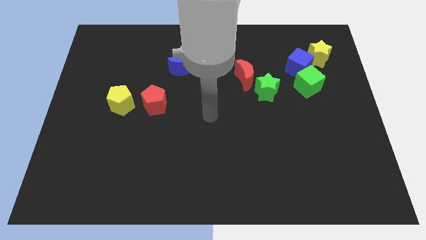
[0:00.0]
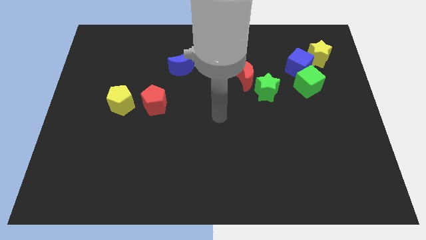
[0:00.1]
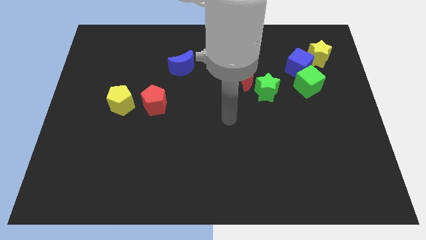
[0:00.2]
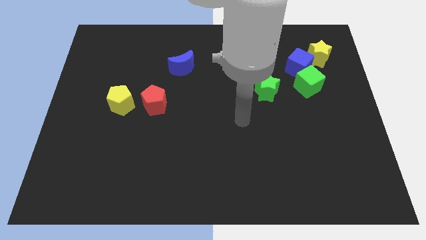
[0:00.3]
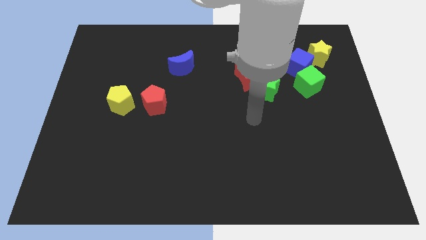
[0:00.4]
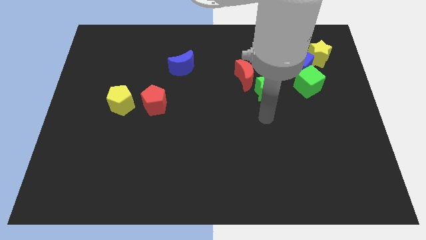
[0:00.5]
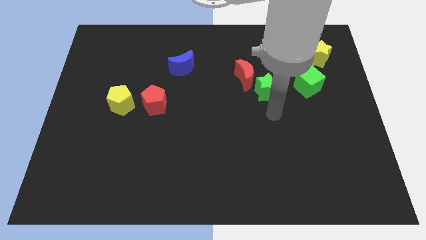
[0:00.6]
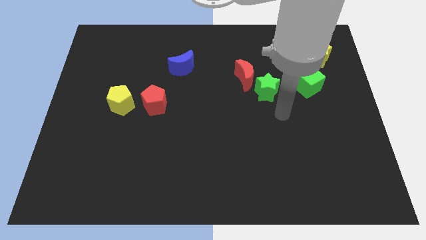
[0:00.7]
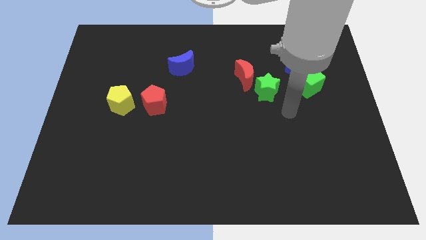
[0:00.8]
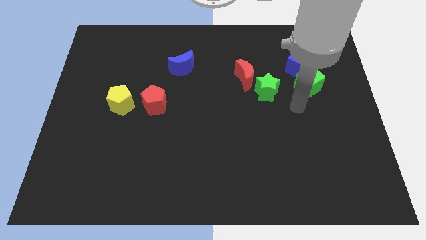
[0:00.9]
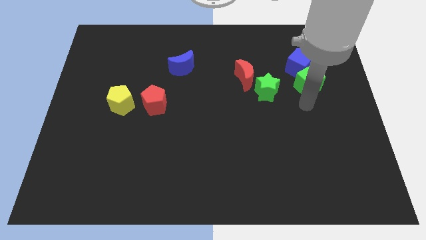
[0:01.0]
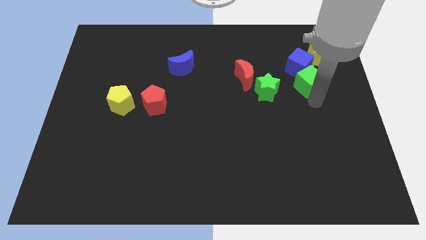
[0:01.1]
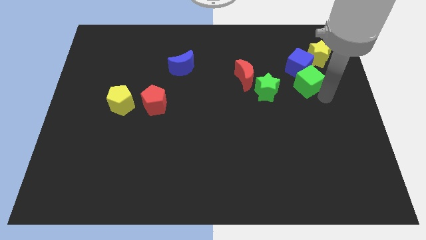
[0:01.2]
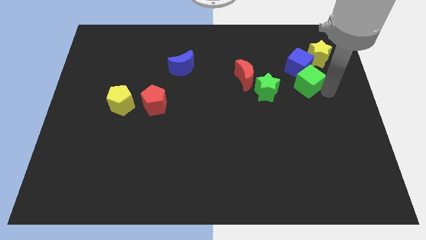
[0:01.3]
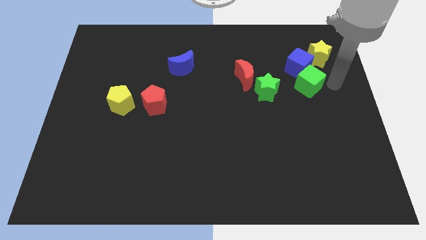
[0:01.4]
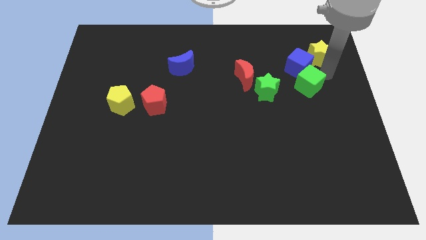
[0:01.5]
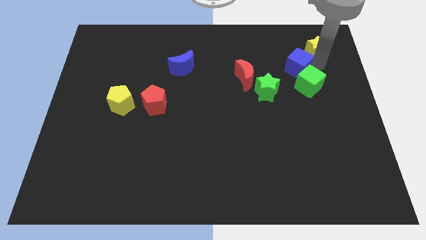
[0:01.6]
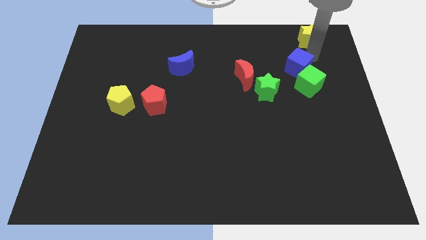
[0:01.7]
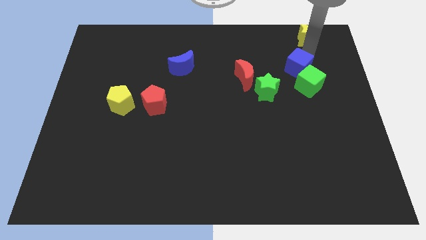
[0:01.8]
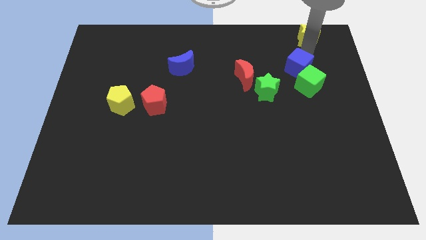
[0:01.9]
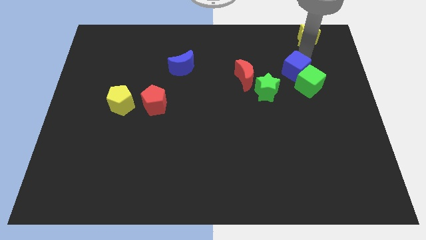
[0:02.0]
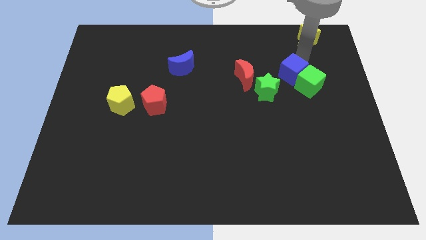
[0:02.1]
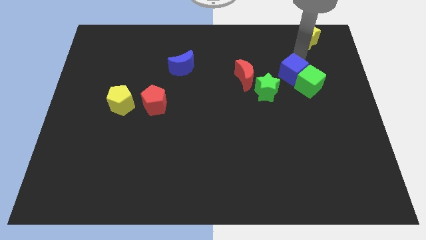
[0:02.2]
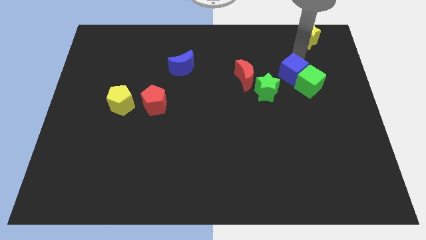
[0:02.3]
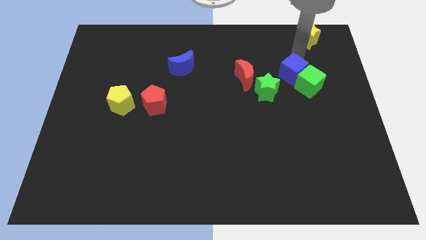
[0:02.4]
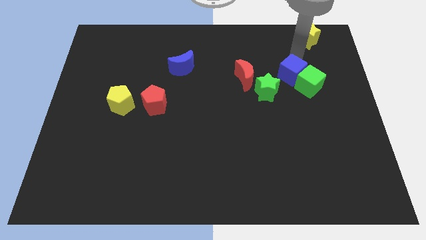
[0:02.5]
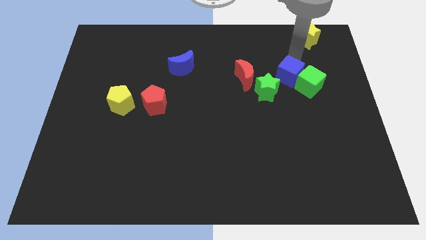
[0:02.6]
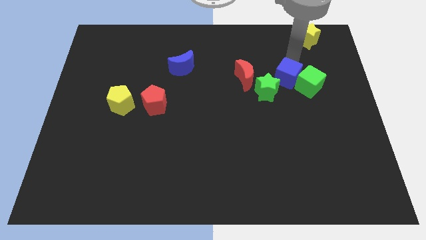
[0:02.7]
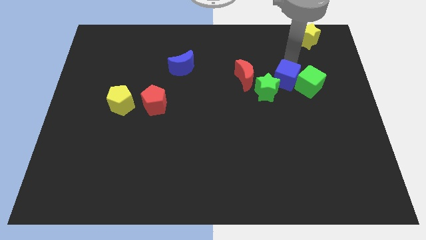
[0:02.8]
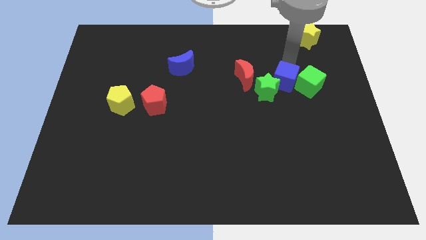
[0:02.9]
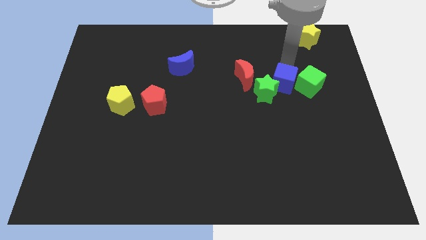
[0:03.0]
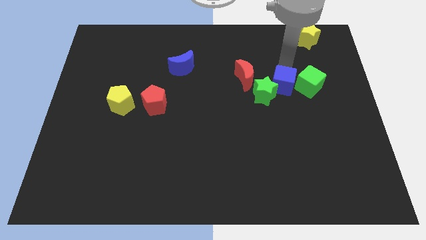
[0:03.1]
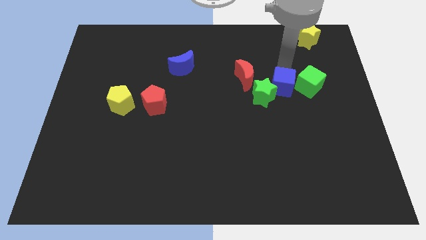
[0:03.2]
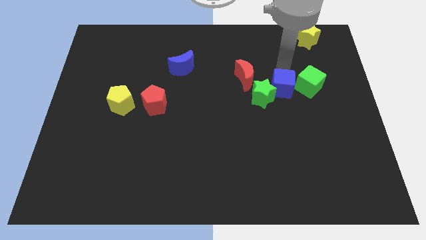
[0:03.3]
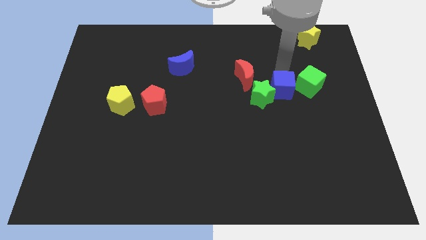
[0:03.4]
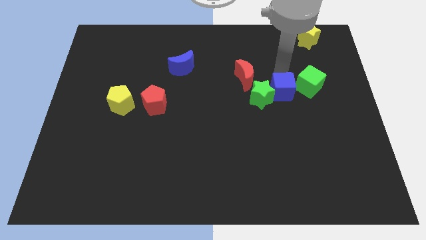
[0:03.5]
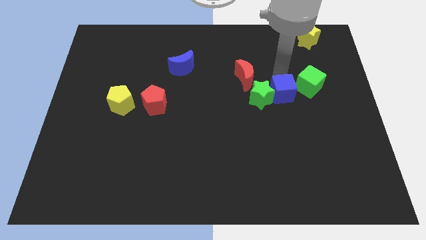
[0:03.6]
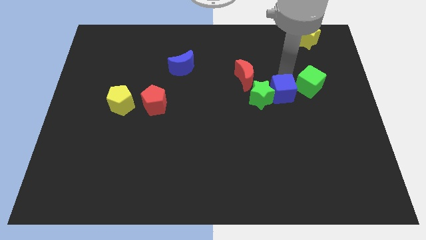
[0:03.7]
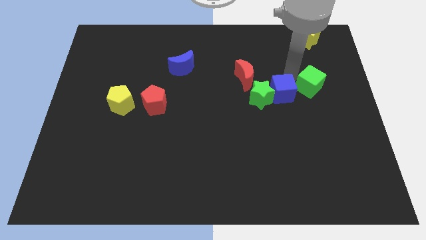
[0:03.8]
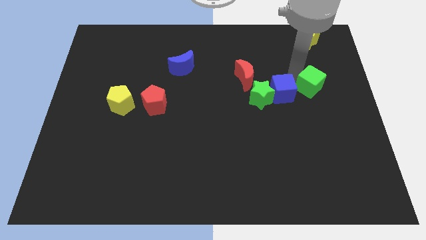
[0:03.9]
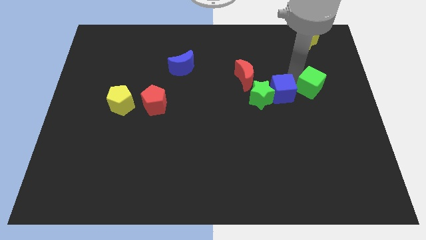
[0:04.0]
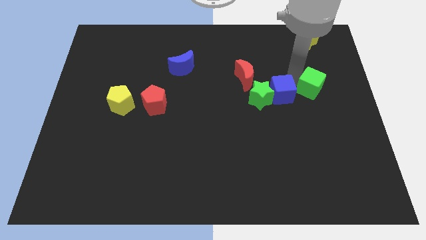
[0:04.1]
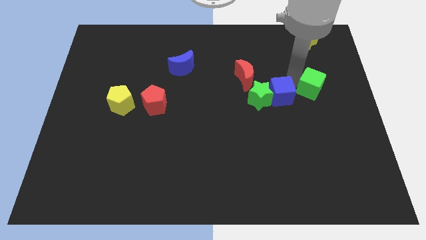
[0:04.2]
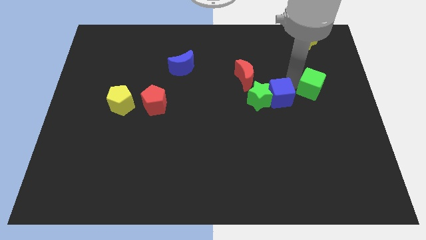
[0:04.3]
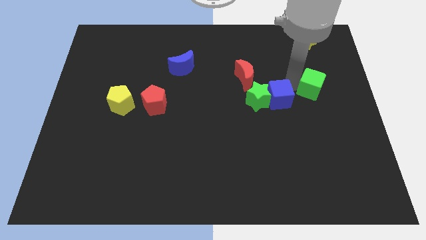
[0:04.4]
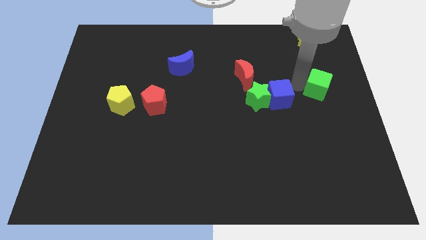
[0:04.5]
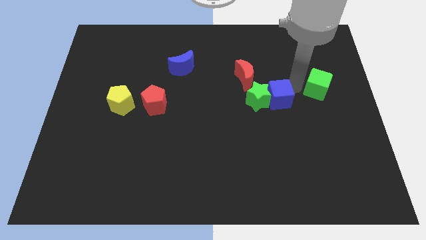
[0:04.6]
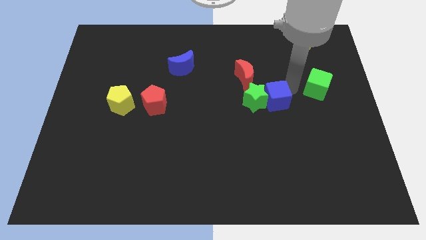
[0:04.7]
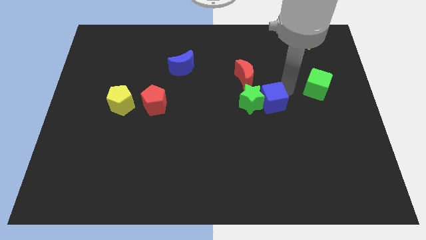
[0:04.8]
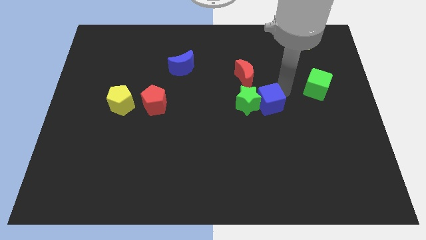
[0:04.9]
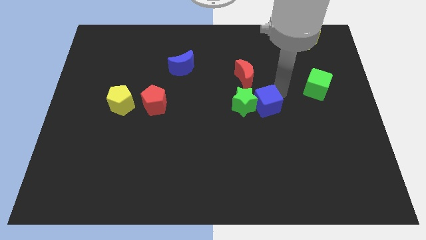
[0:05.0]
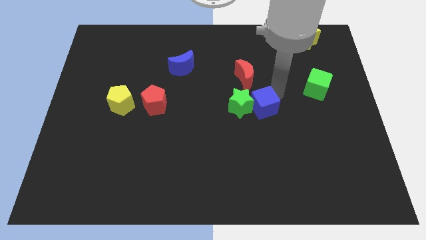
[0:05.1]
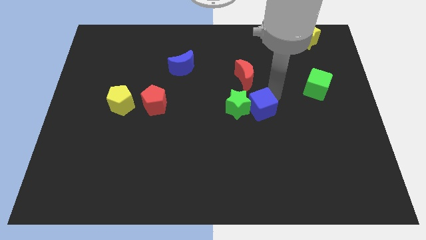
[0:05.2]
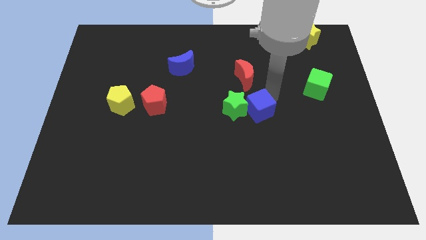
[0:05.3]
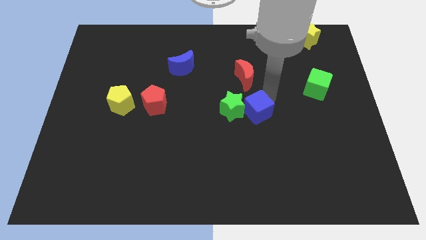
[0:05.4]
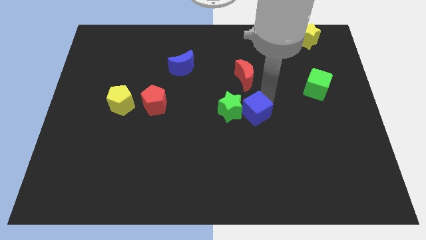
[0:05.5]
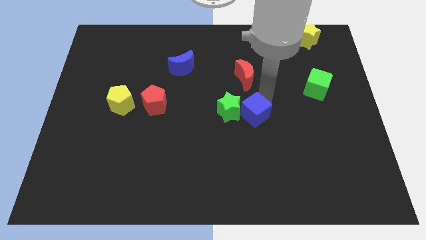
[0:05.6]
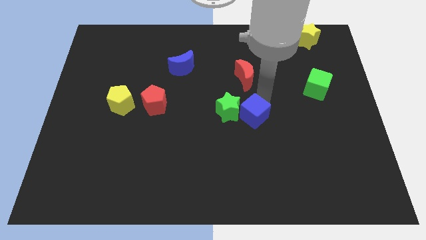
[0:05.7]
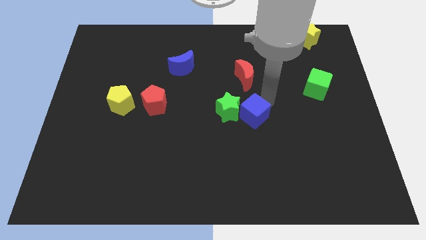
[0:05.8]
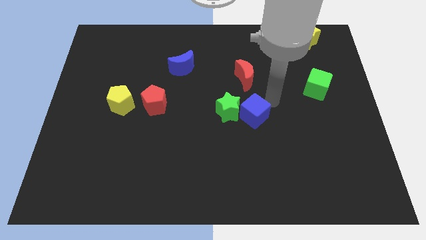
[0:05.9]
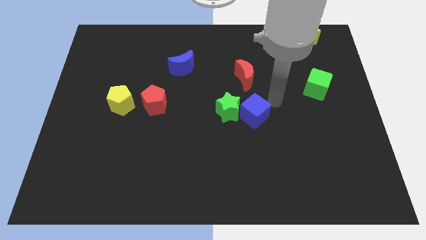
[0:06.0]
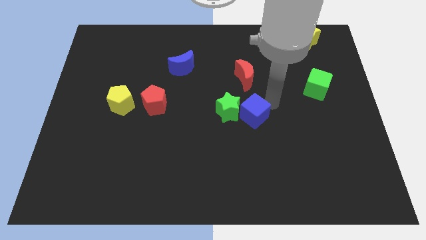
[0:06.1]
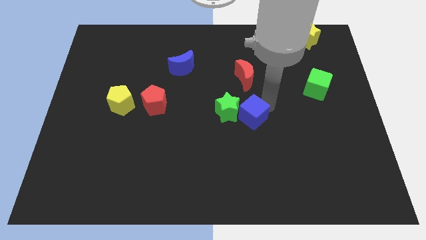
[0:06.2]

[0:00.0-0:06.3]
move the blue cube downwards and to the left

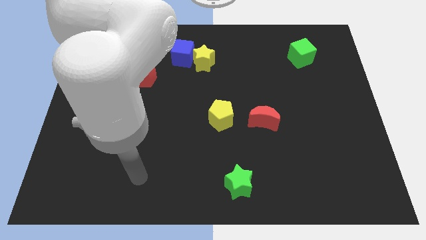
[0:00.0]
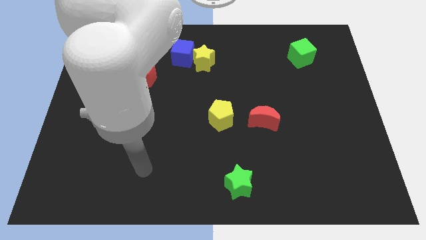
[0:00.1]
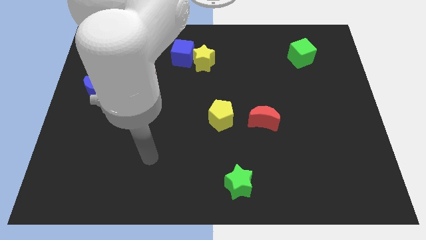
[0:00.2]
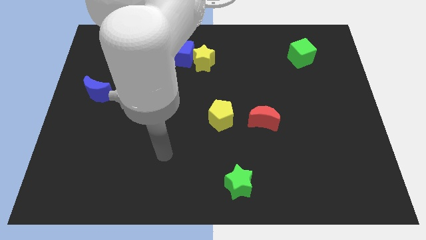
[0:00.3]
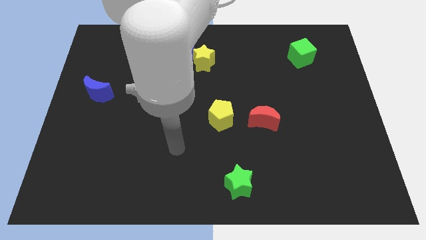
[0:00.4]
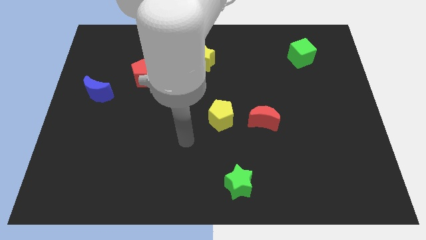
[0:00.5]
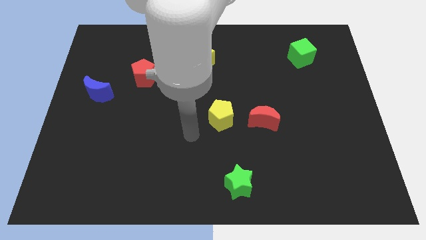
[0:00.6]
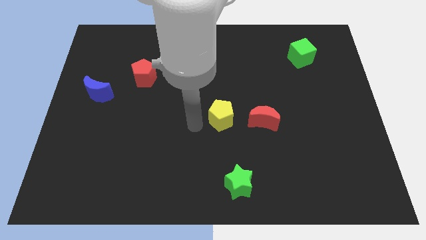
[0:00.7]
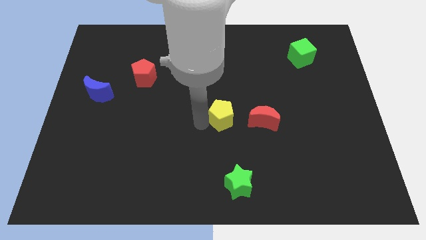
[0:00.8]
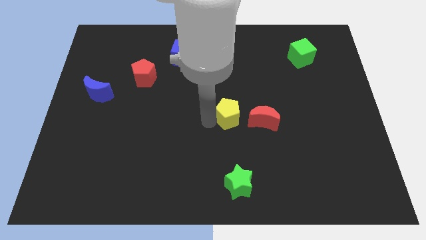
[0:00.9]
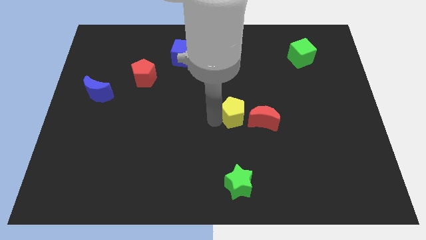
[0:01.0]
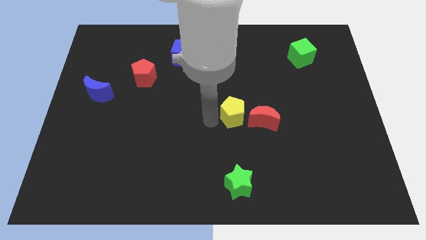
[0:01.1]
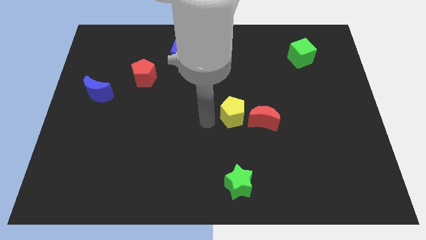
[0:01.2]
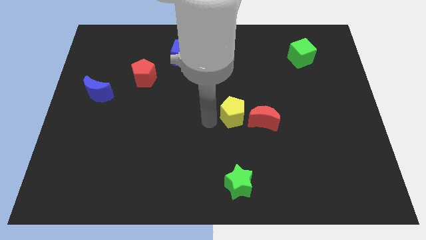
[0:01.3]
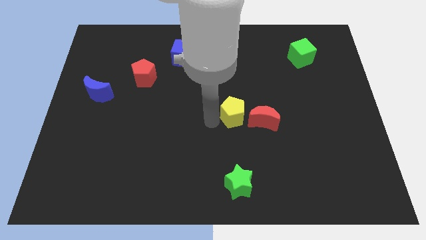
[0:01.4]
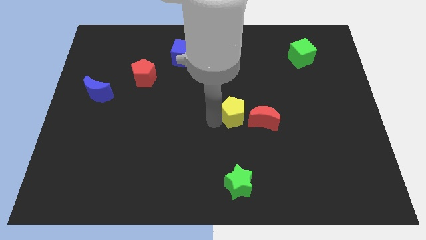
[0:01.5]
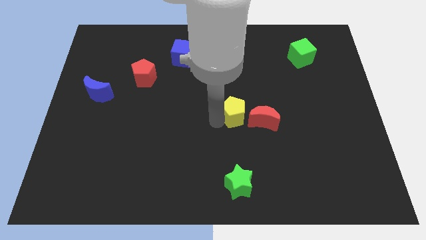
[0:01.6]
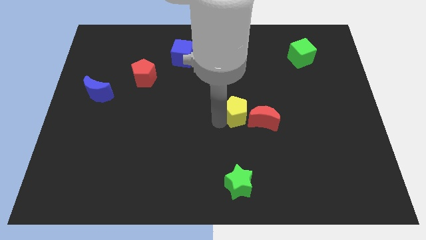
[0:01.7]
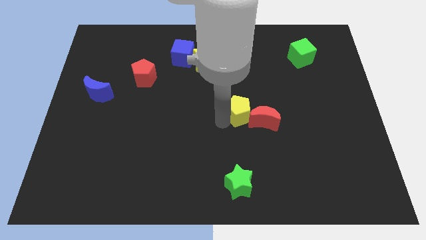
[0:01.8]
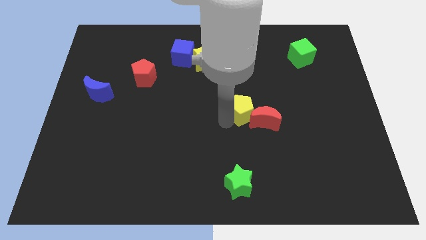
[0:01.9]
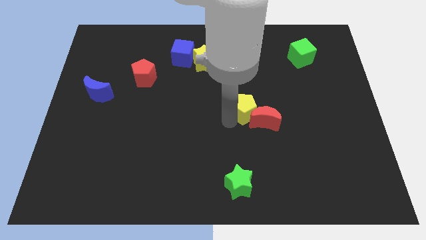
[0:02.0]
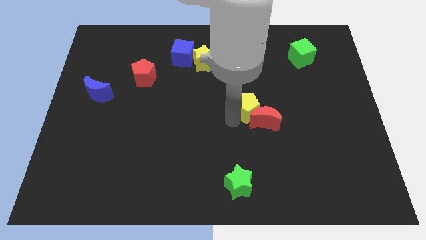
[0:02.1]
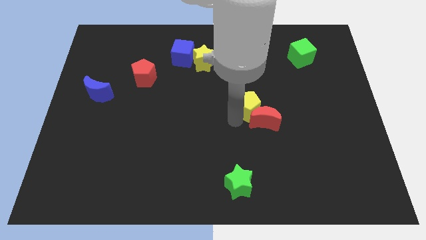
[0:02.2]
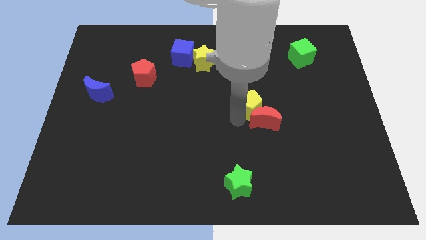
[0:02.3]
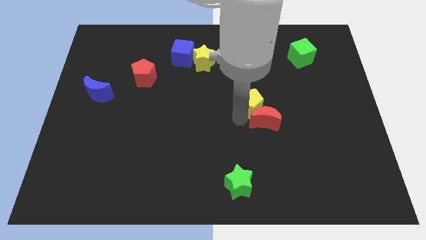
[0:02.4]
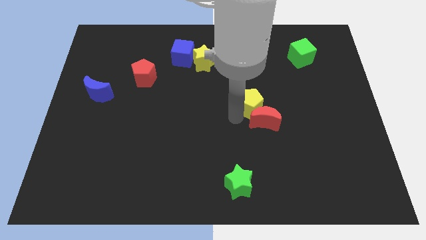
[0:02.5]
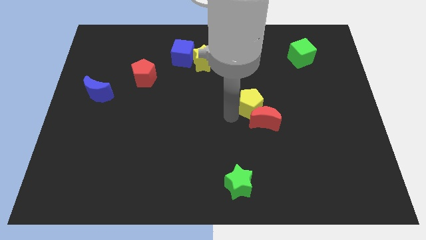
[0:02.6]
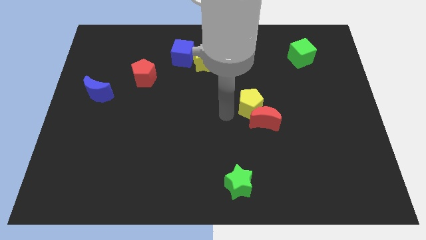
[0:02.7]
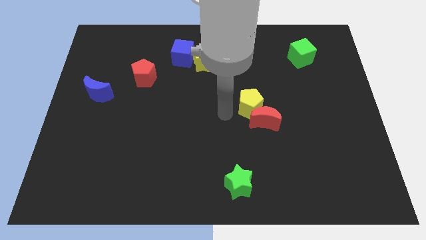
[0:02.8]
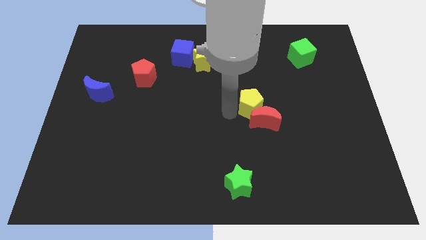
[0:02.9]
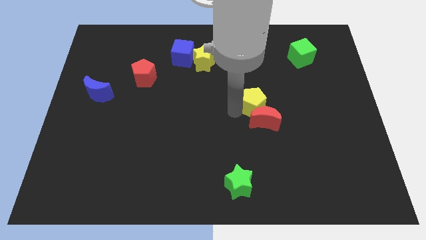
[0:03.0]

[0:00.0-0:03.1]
push the yellow pentagon right slightly
